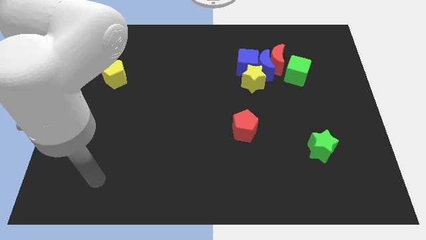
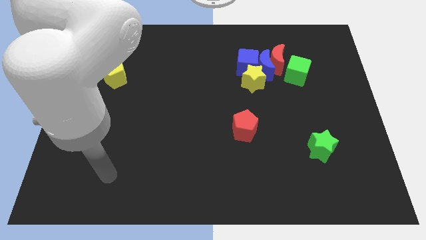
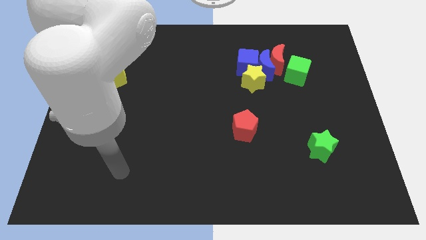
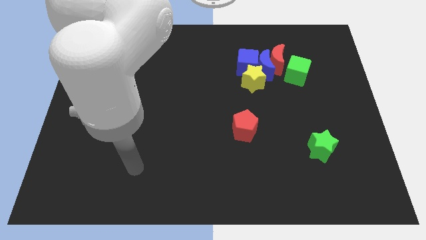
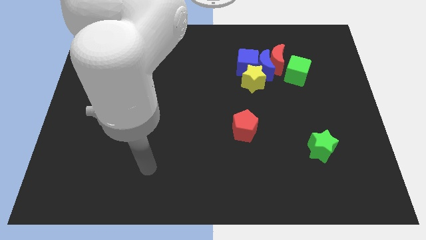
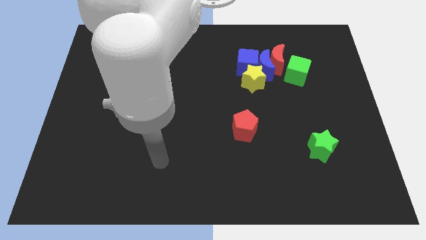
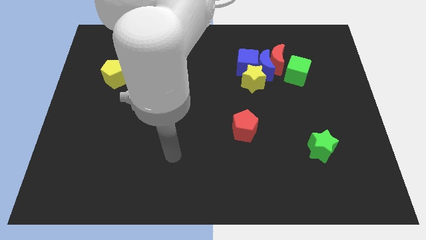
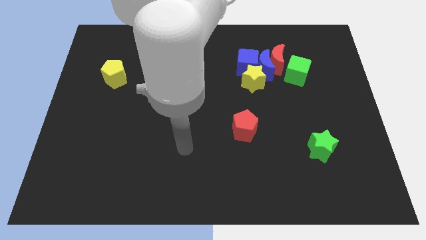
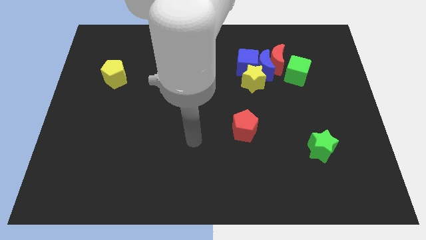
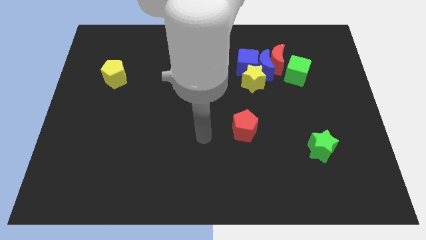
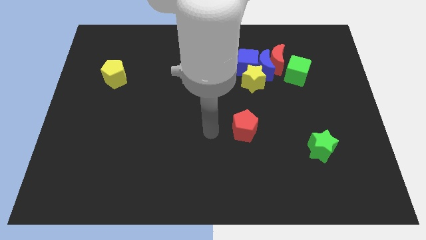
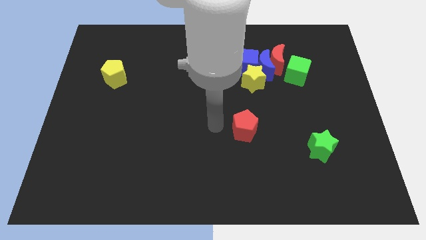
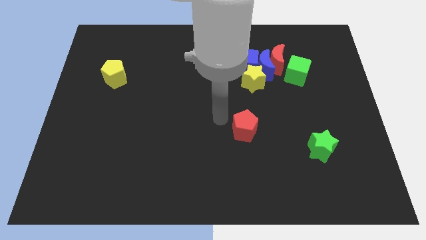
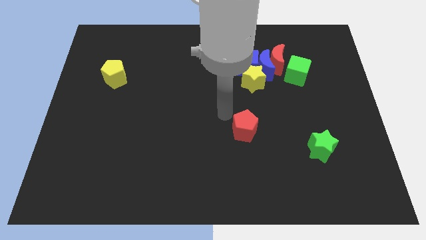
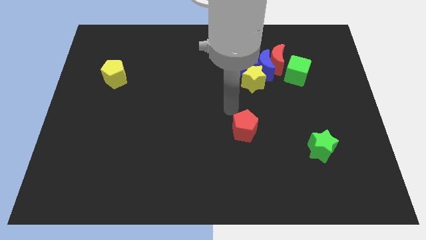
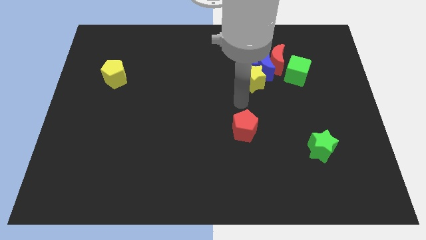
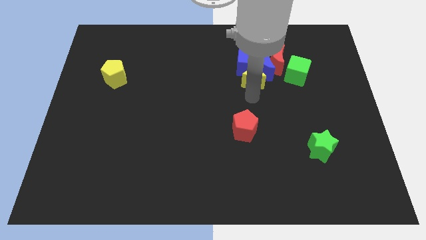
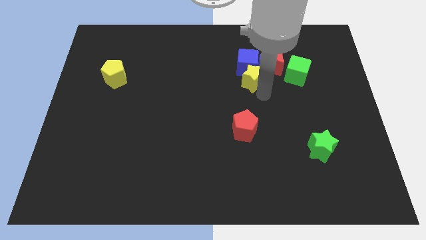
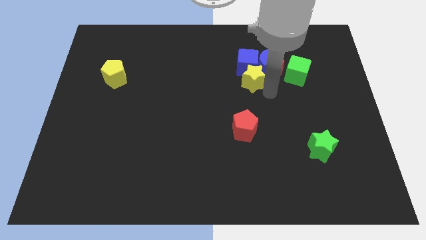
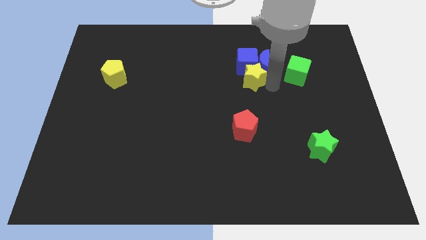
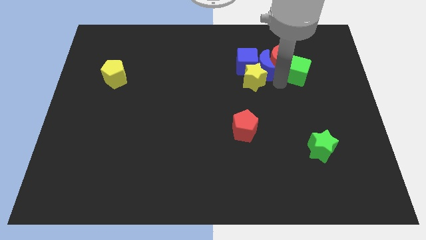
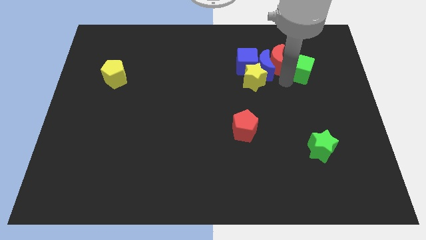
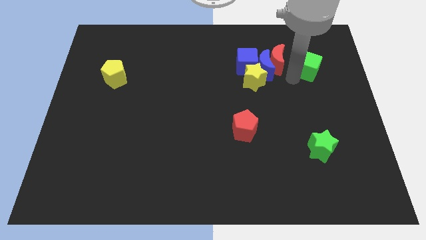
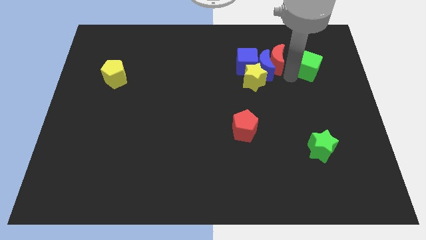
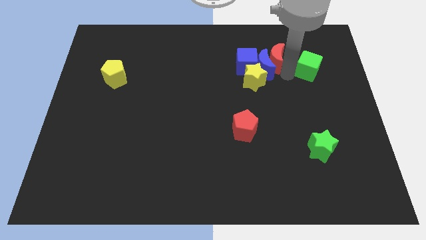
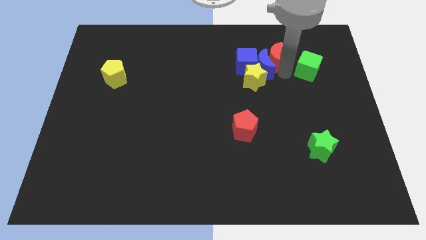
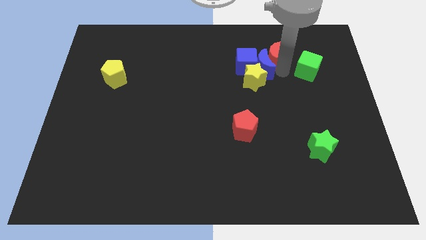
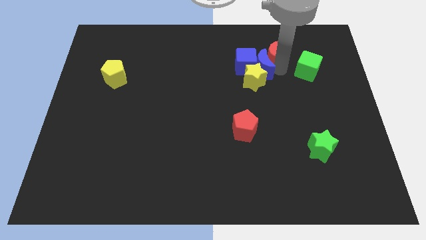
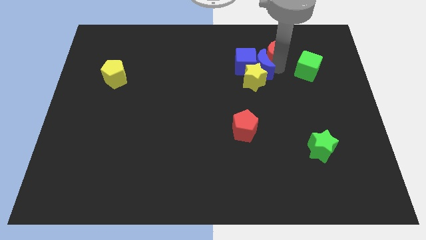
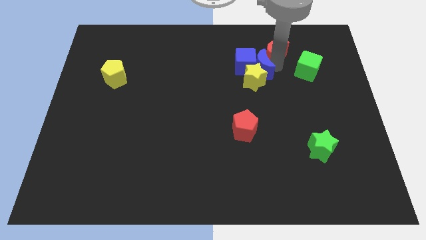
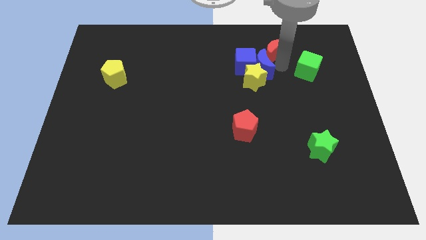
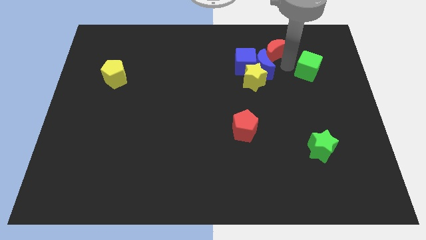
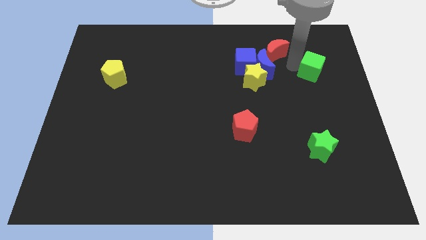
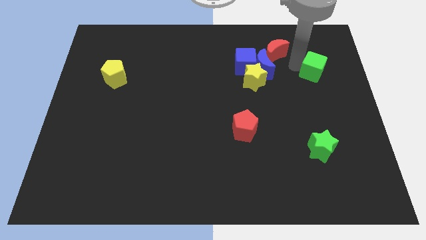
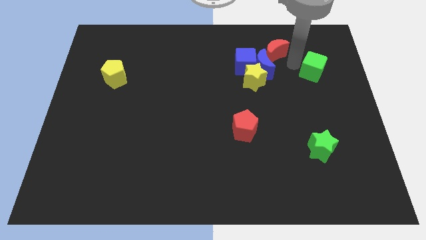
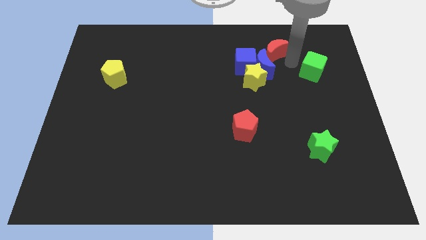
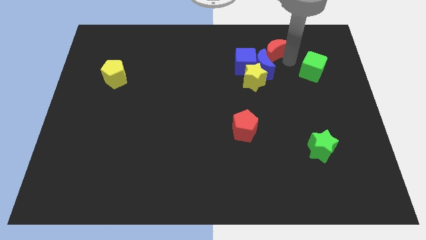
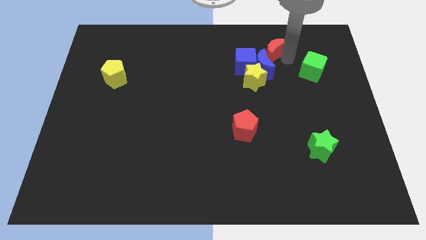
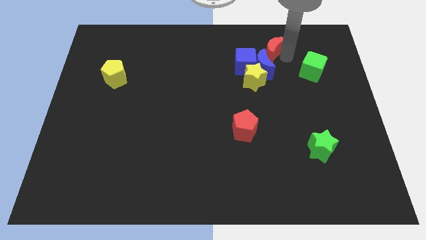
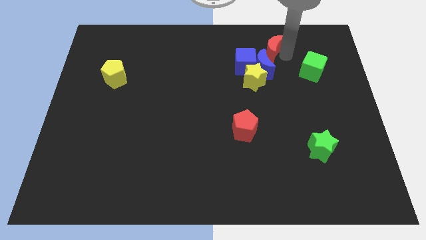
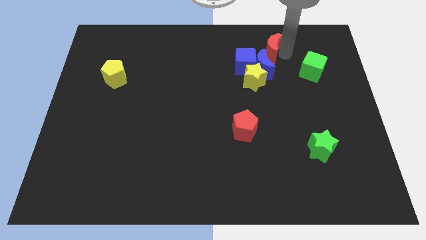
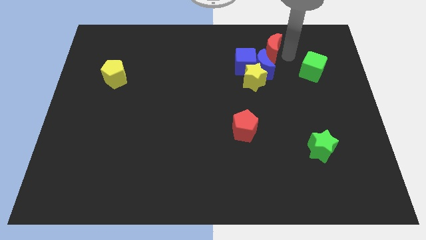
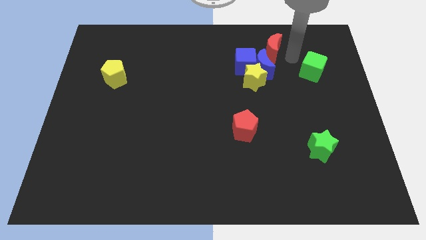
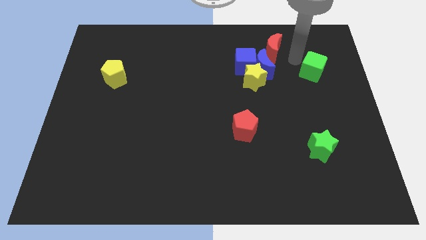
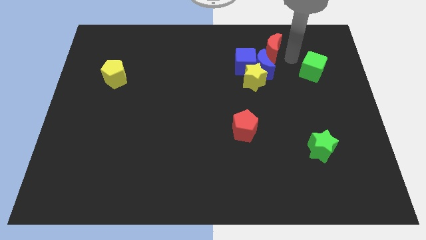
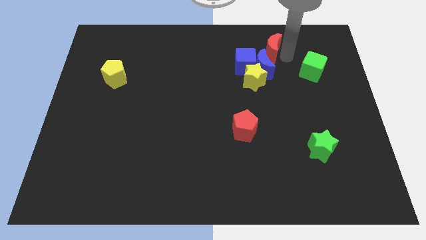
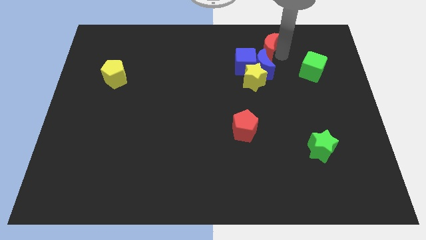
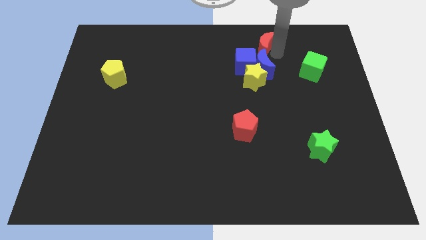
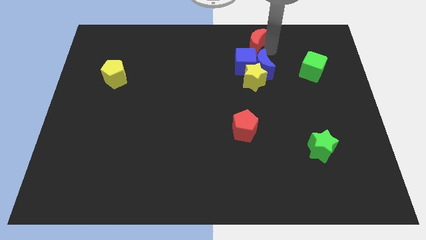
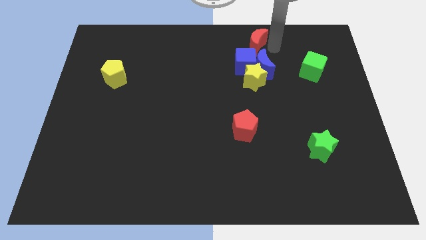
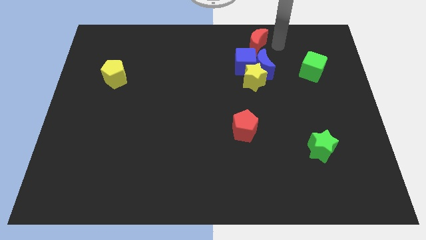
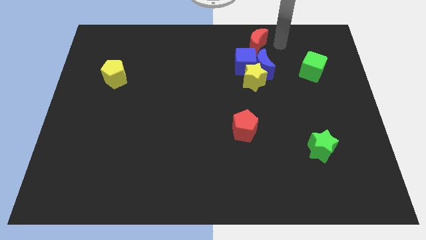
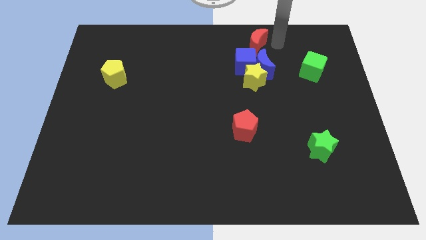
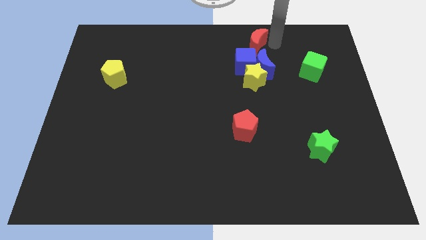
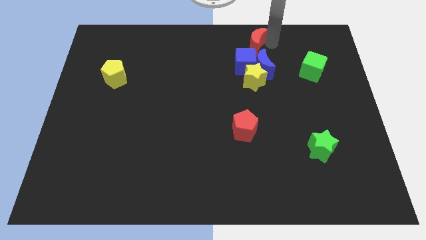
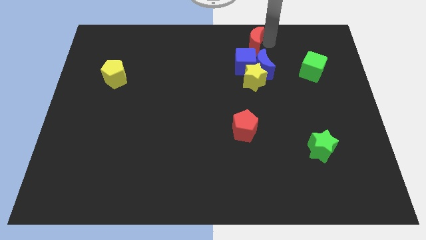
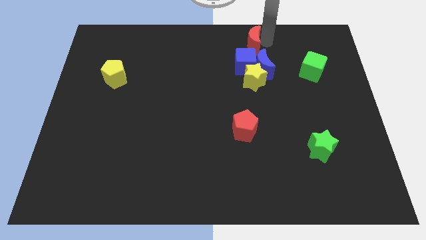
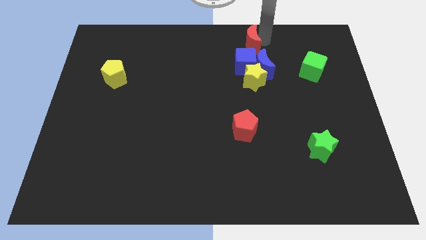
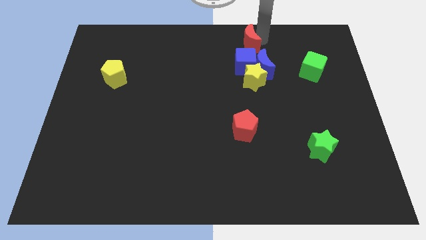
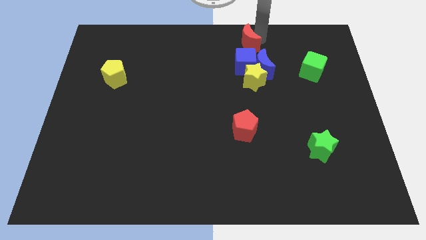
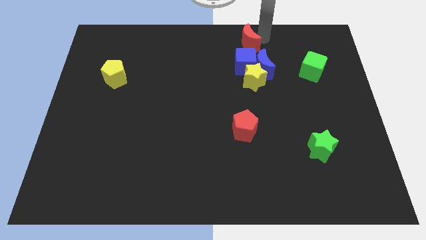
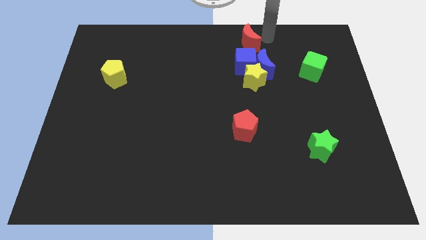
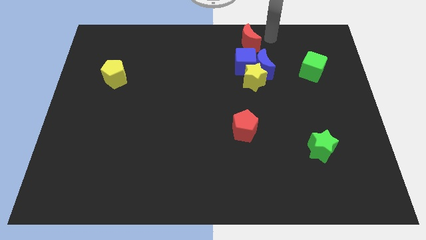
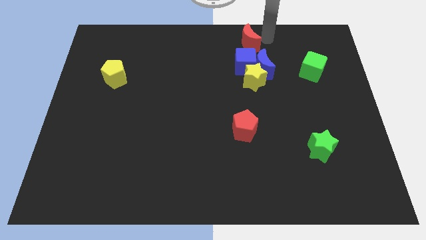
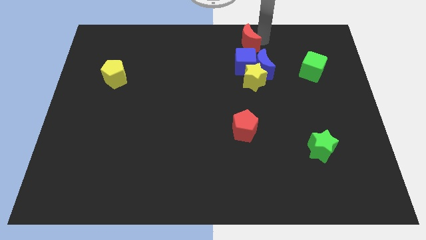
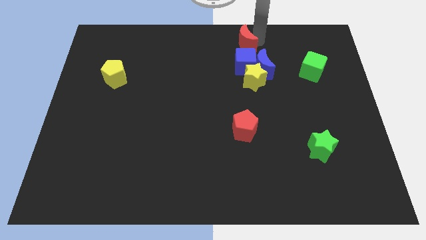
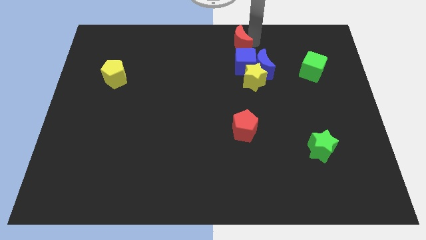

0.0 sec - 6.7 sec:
slide the red moon slightly to the left

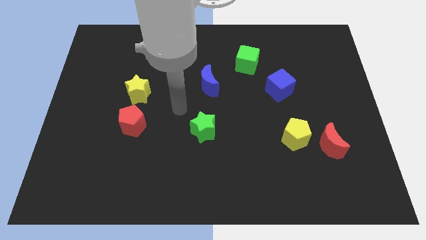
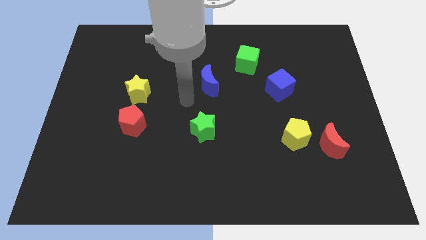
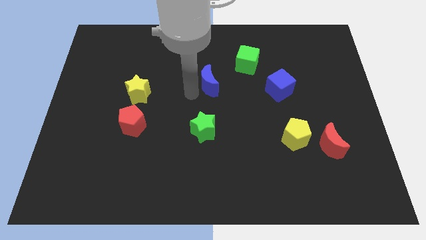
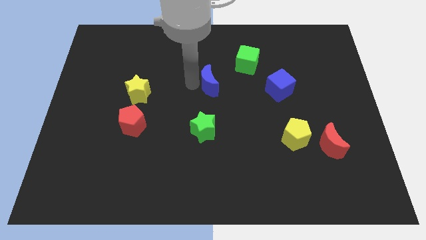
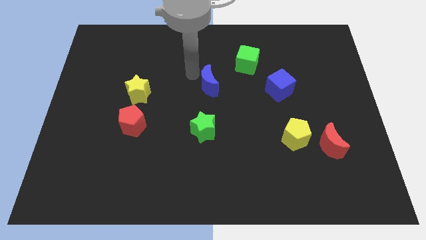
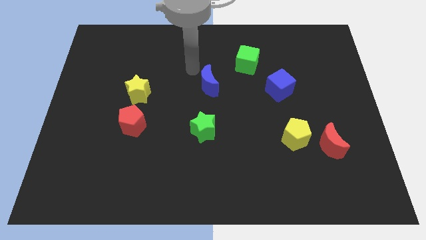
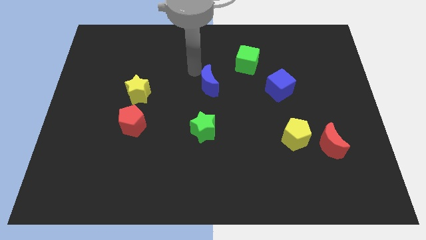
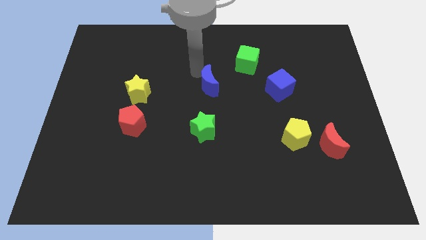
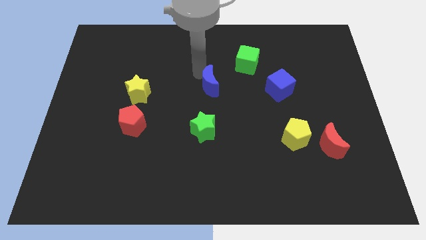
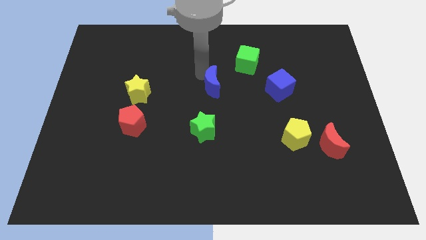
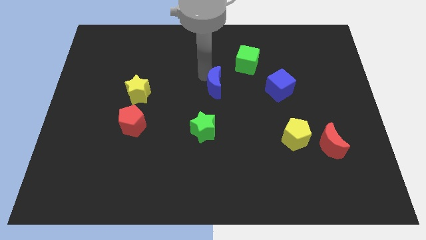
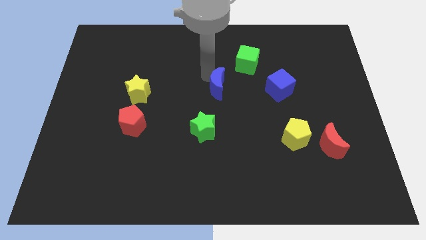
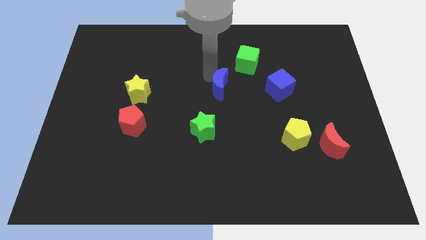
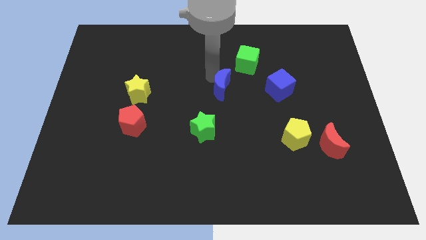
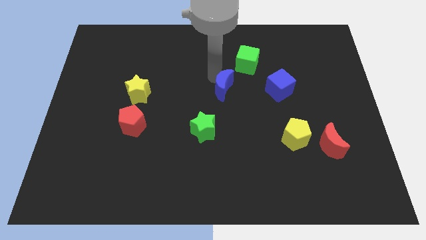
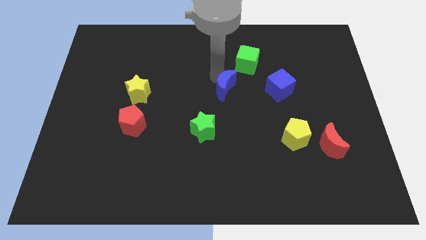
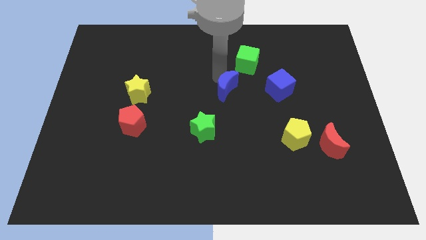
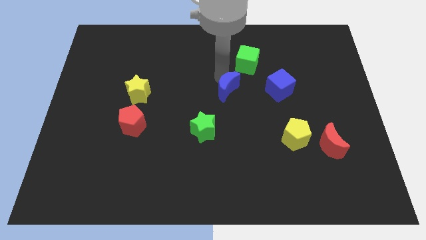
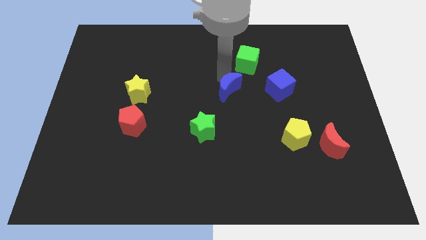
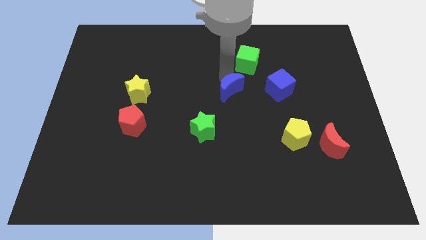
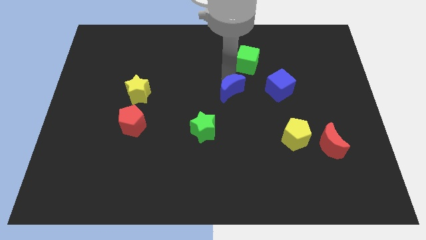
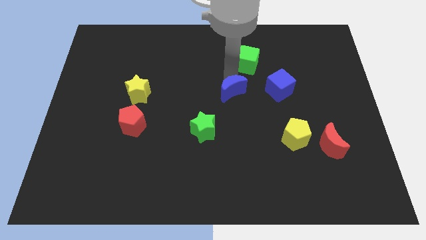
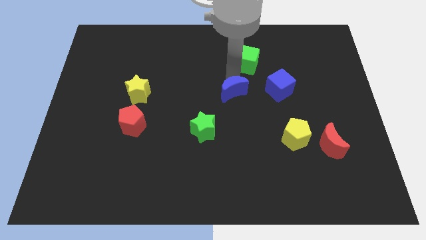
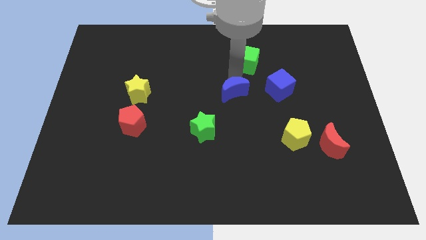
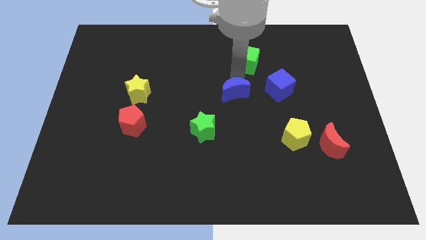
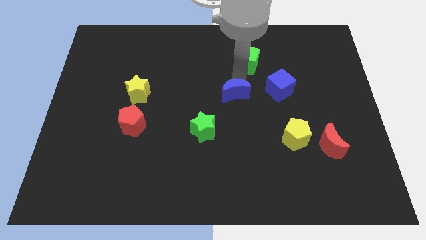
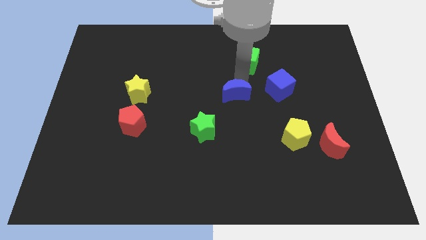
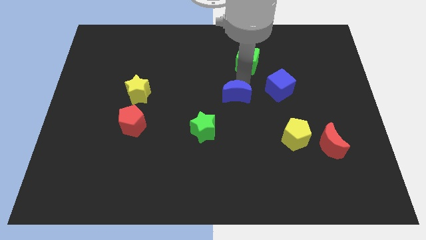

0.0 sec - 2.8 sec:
slightly slide the blue moon down and to the right
